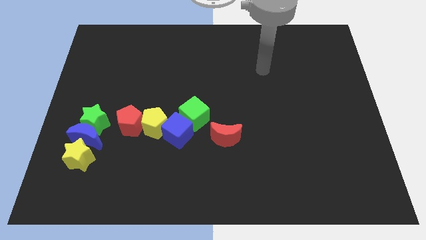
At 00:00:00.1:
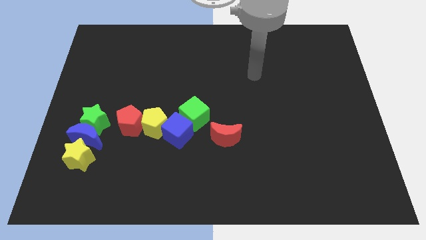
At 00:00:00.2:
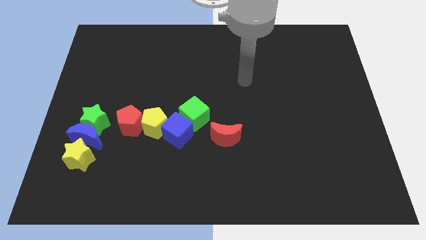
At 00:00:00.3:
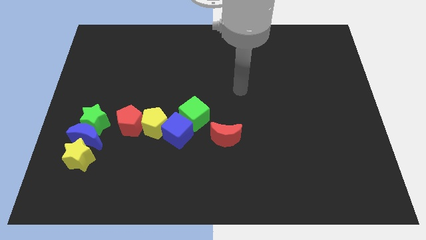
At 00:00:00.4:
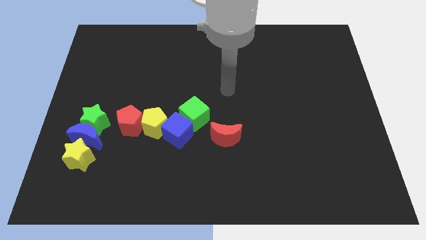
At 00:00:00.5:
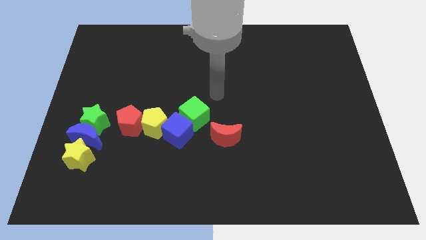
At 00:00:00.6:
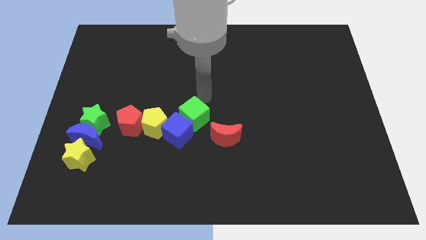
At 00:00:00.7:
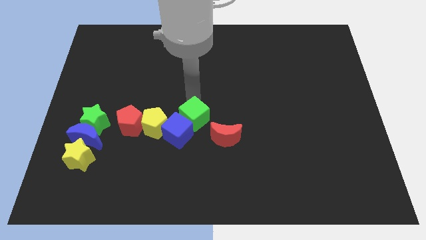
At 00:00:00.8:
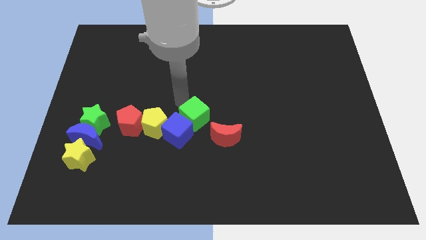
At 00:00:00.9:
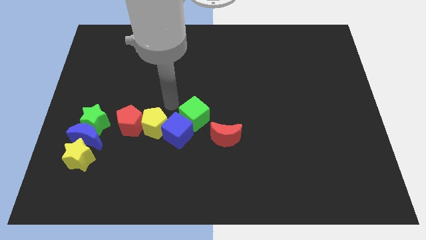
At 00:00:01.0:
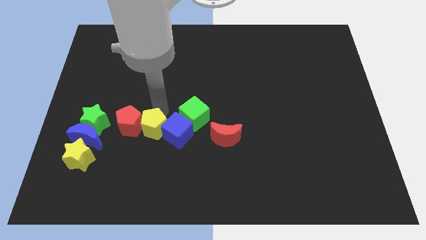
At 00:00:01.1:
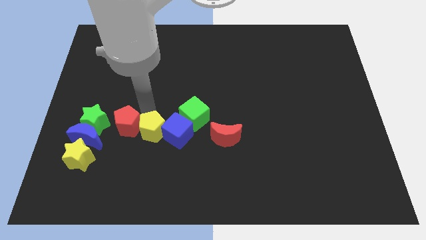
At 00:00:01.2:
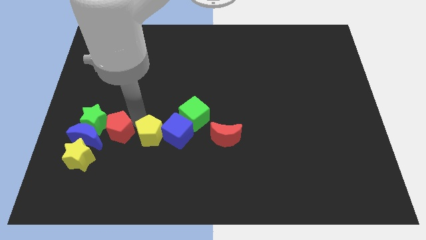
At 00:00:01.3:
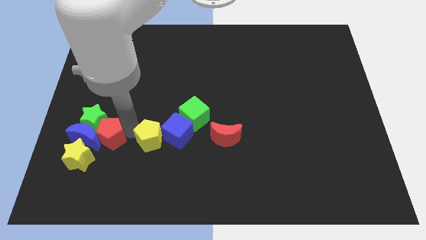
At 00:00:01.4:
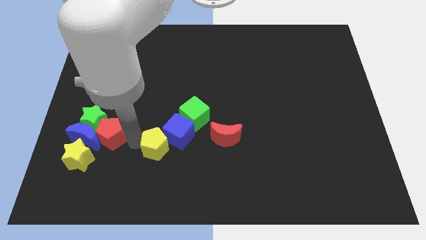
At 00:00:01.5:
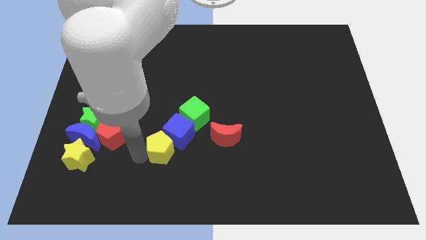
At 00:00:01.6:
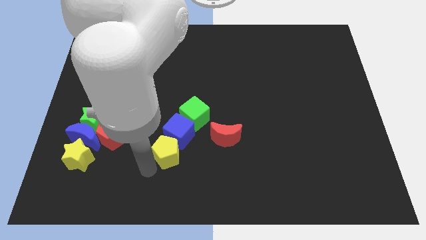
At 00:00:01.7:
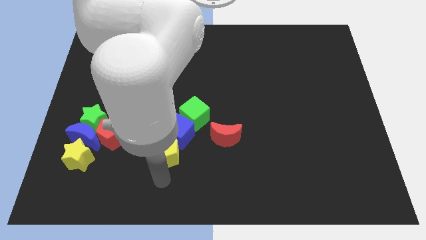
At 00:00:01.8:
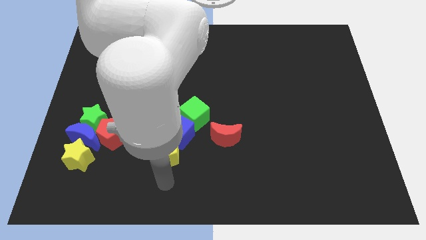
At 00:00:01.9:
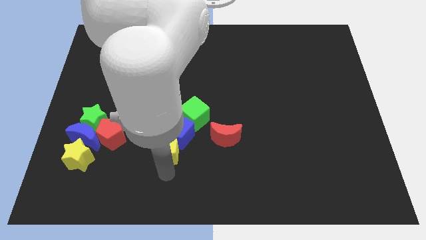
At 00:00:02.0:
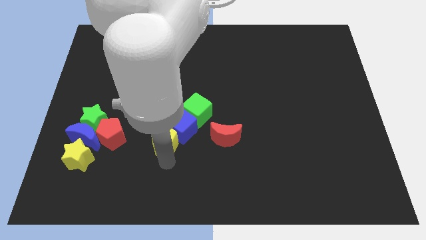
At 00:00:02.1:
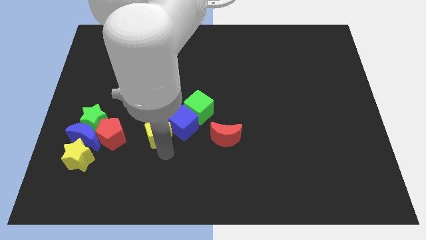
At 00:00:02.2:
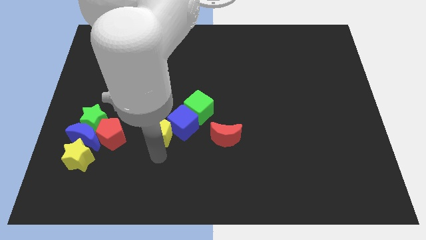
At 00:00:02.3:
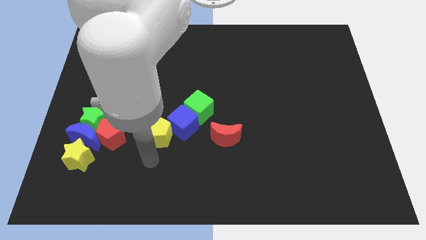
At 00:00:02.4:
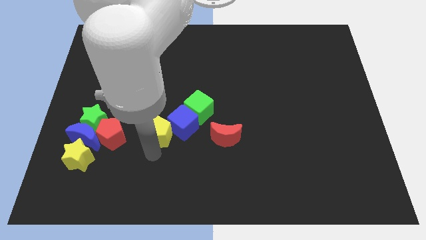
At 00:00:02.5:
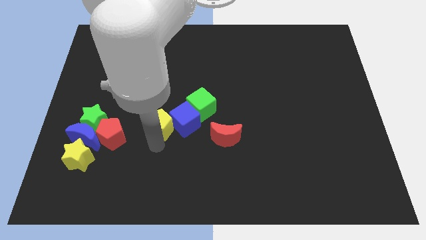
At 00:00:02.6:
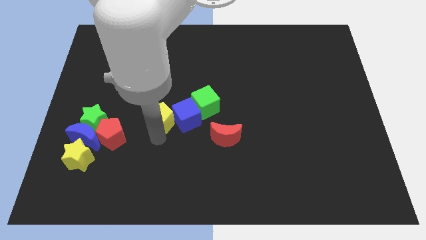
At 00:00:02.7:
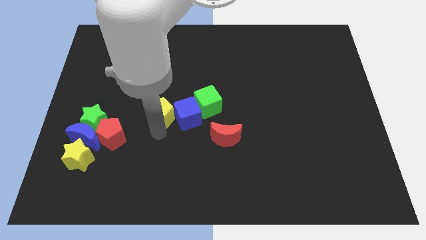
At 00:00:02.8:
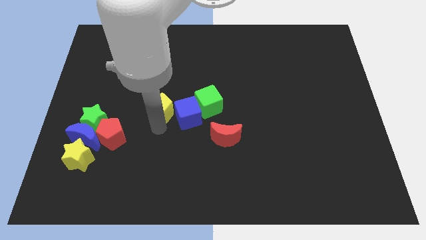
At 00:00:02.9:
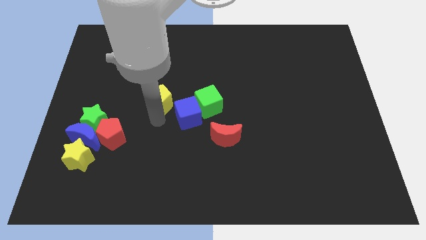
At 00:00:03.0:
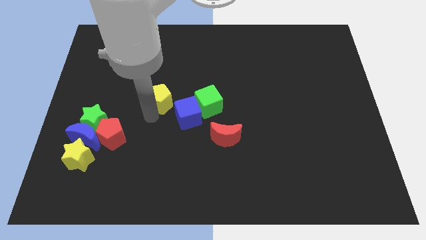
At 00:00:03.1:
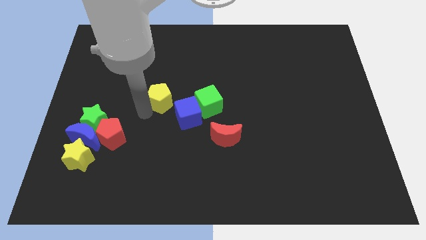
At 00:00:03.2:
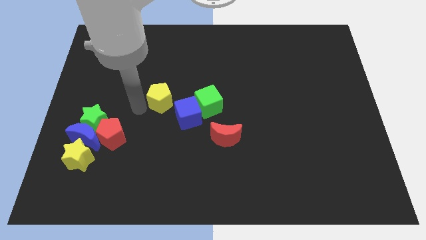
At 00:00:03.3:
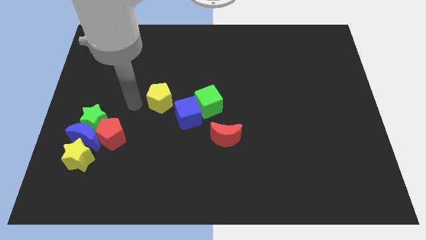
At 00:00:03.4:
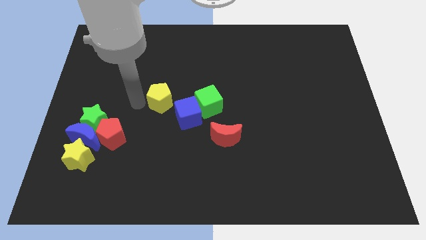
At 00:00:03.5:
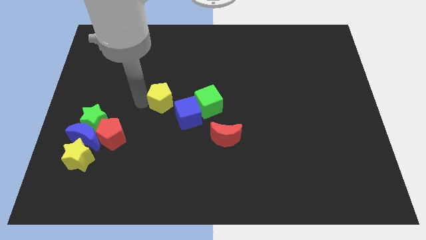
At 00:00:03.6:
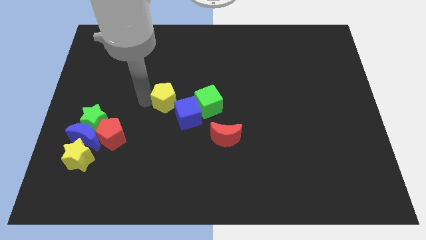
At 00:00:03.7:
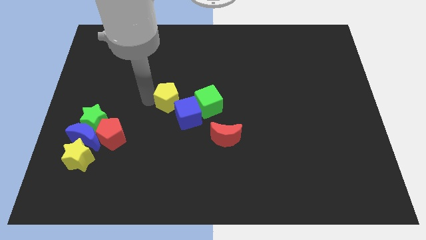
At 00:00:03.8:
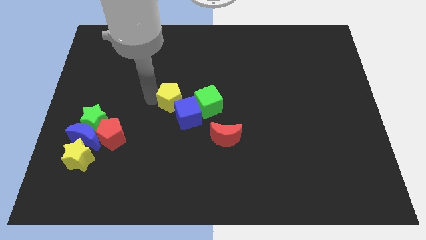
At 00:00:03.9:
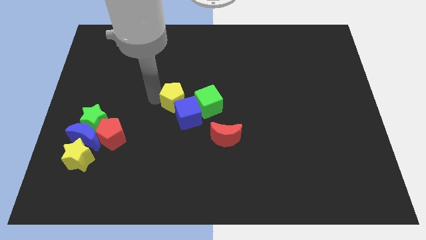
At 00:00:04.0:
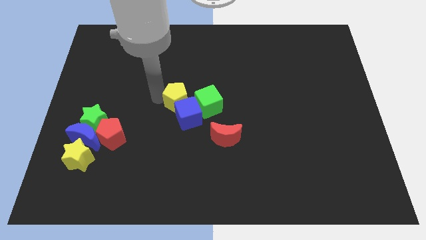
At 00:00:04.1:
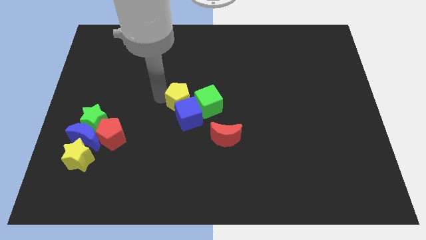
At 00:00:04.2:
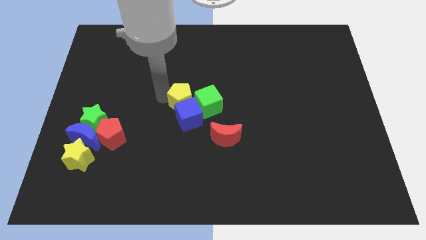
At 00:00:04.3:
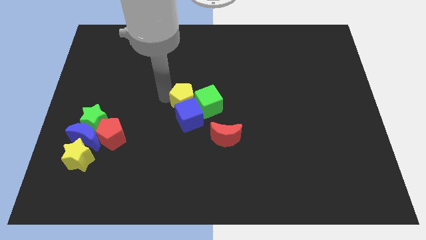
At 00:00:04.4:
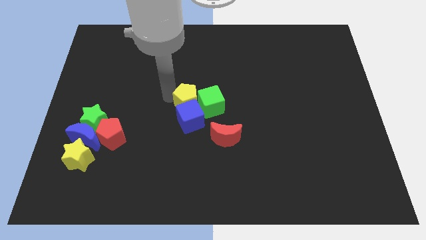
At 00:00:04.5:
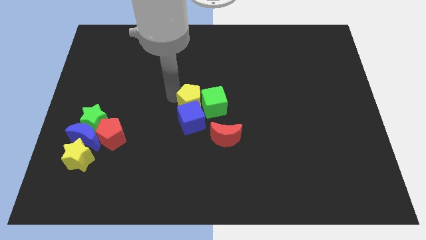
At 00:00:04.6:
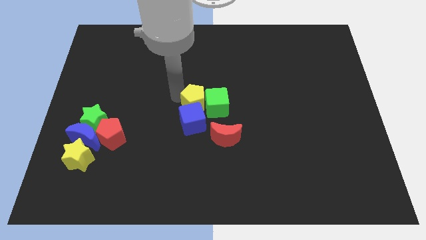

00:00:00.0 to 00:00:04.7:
slide the yellow pentagon right a little

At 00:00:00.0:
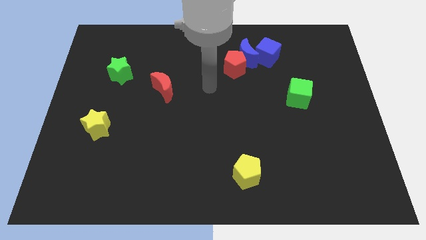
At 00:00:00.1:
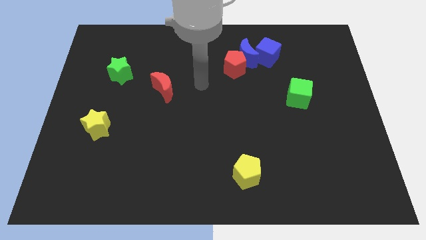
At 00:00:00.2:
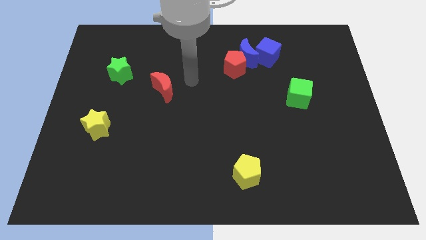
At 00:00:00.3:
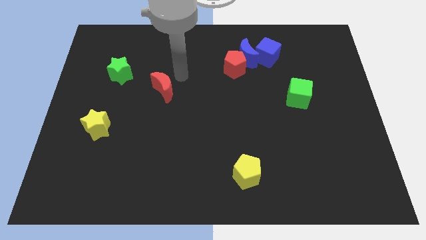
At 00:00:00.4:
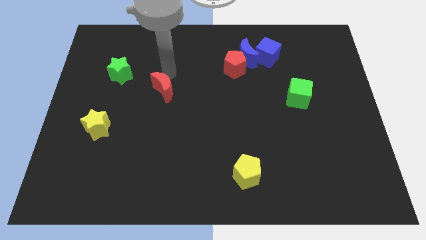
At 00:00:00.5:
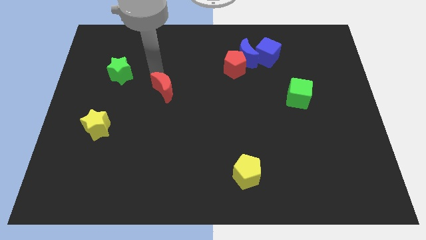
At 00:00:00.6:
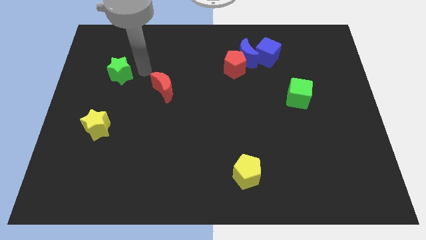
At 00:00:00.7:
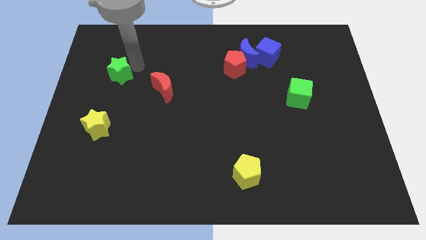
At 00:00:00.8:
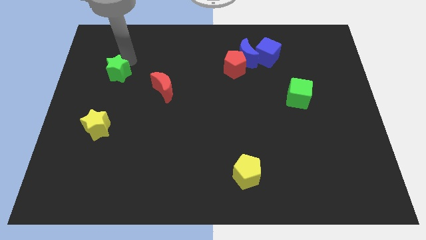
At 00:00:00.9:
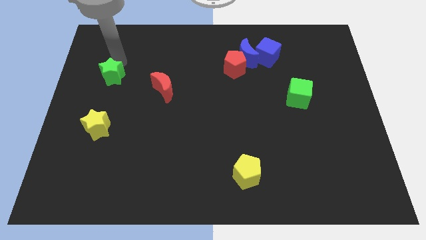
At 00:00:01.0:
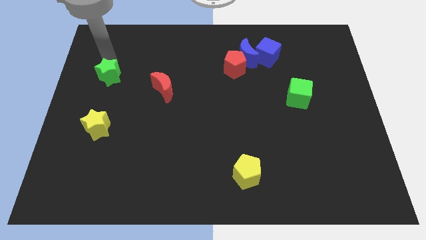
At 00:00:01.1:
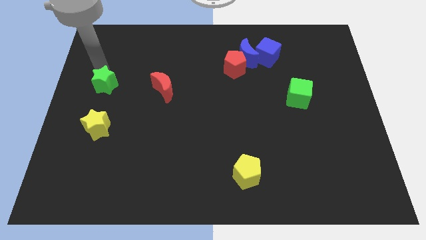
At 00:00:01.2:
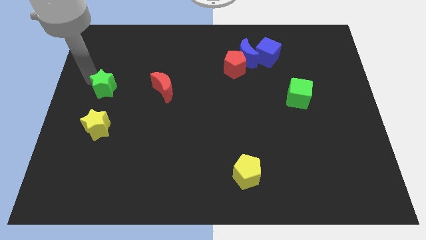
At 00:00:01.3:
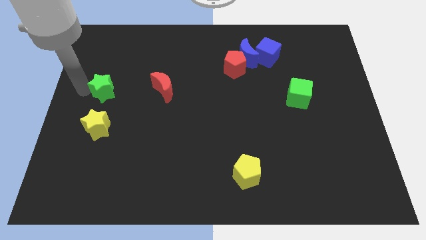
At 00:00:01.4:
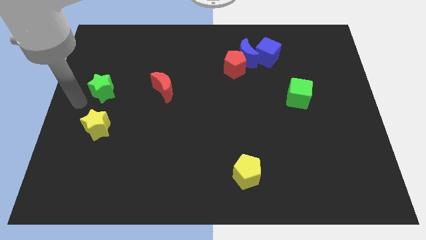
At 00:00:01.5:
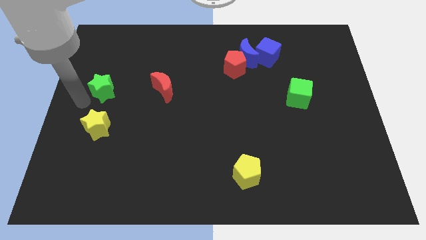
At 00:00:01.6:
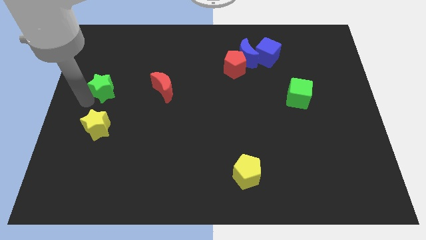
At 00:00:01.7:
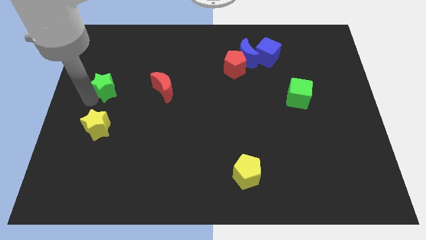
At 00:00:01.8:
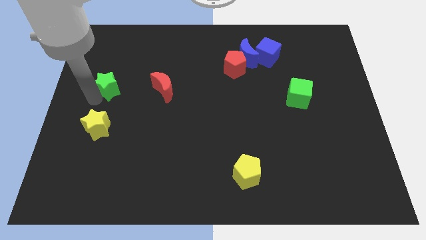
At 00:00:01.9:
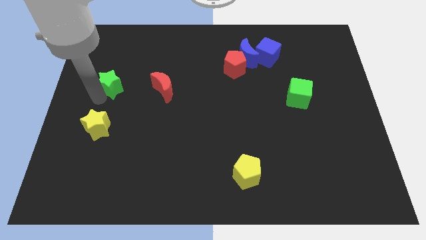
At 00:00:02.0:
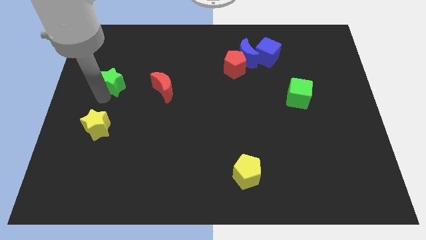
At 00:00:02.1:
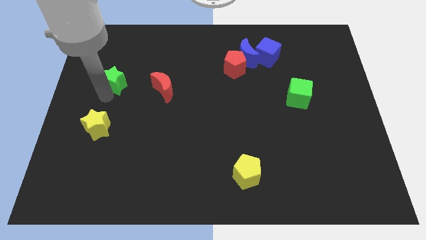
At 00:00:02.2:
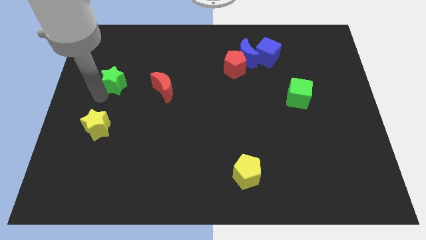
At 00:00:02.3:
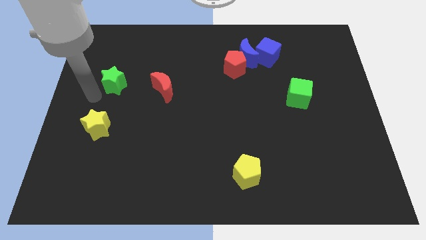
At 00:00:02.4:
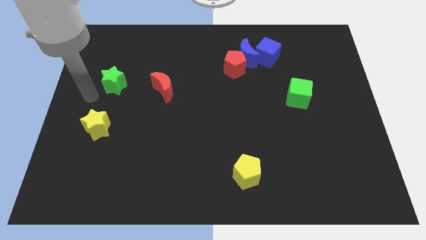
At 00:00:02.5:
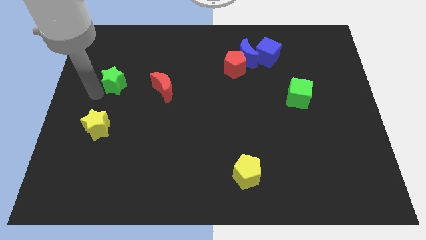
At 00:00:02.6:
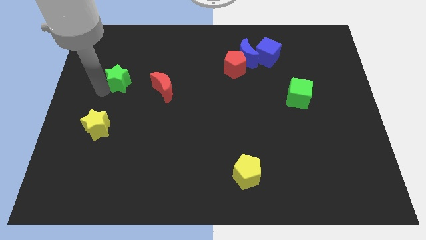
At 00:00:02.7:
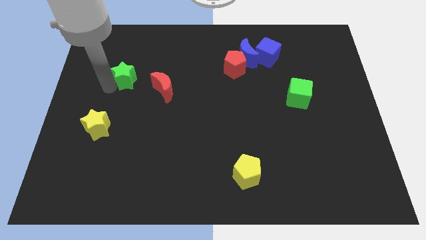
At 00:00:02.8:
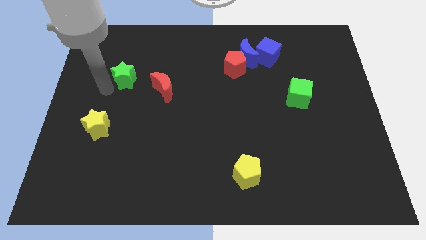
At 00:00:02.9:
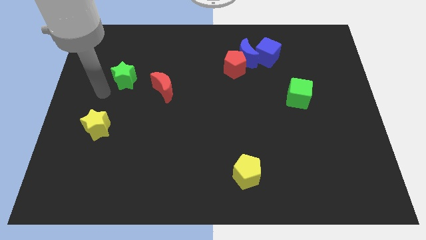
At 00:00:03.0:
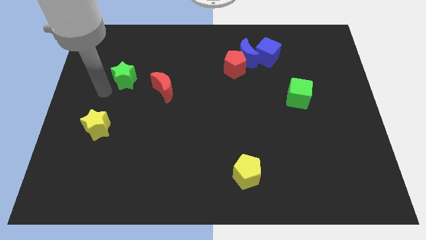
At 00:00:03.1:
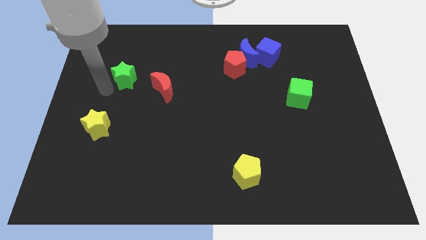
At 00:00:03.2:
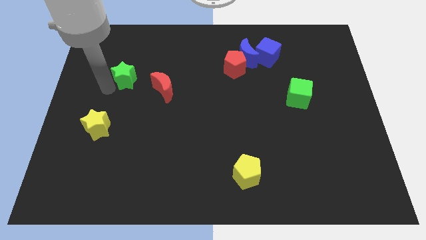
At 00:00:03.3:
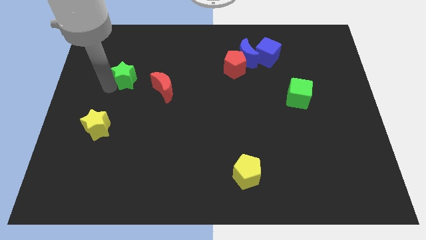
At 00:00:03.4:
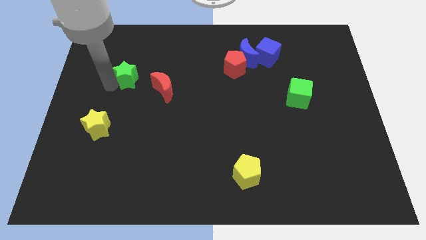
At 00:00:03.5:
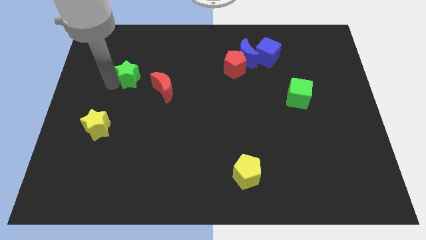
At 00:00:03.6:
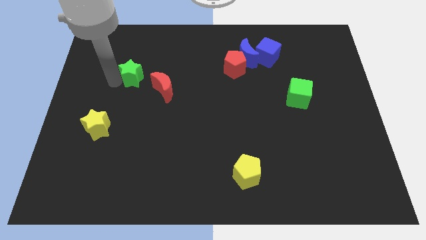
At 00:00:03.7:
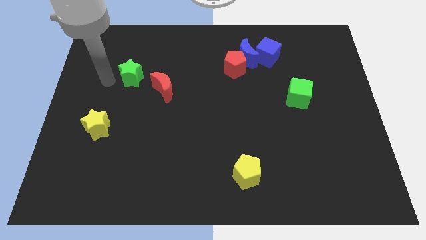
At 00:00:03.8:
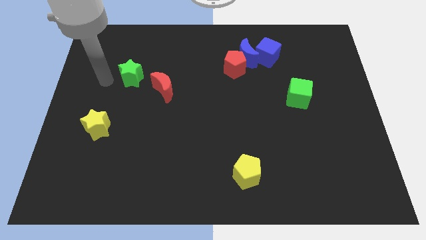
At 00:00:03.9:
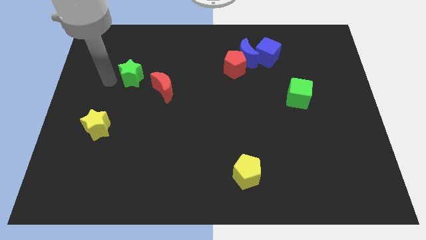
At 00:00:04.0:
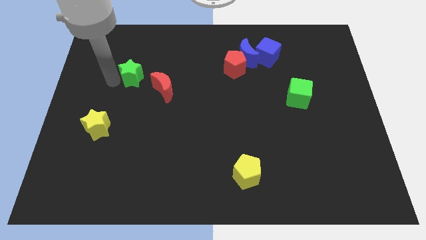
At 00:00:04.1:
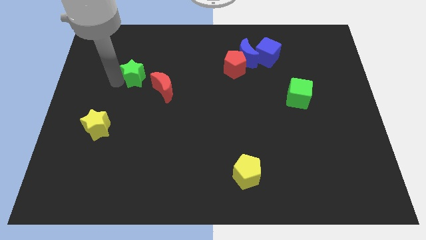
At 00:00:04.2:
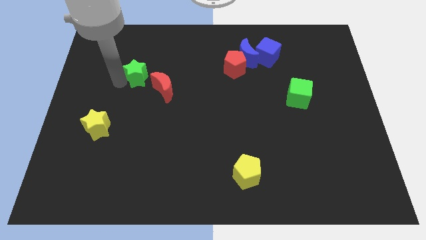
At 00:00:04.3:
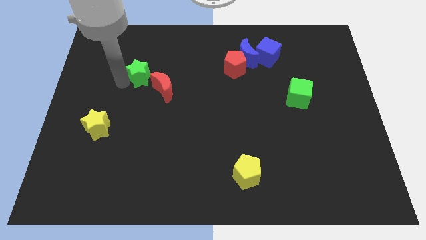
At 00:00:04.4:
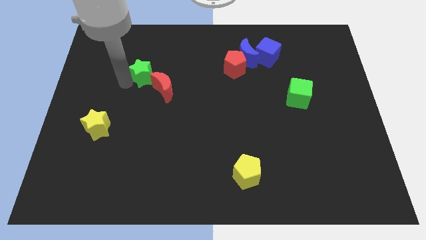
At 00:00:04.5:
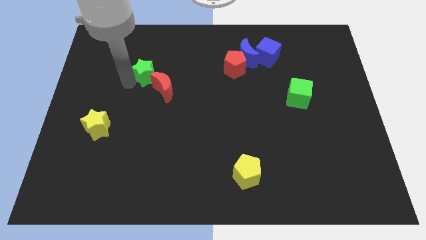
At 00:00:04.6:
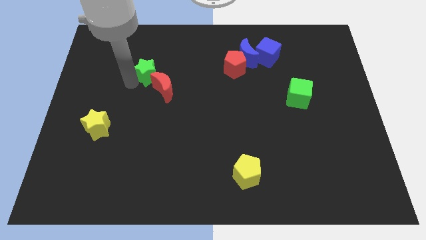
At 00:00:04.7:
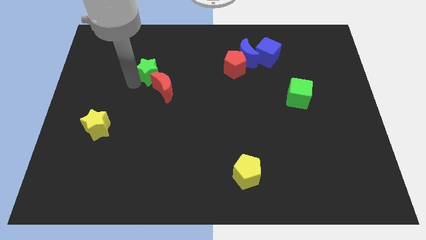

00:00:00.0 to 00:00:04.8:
slightly push the green star right
